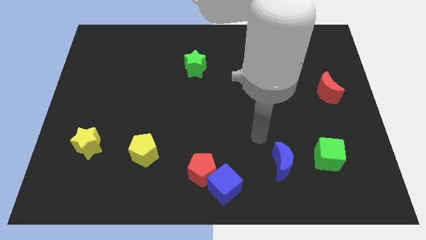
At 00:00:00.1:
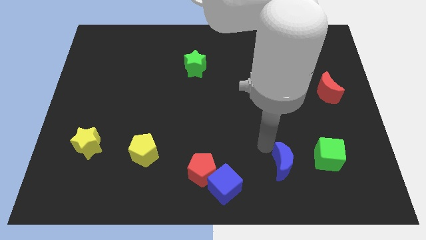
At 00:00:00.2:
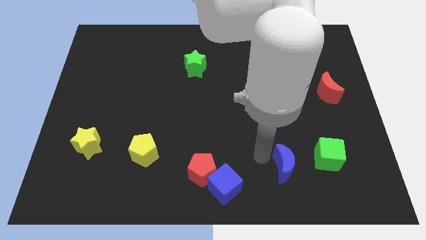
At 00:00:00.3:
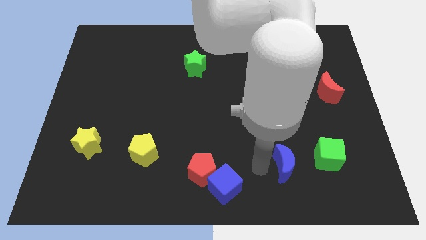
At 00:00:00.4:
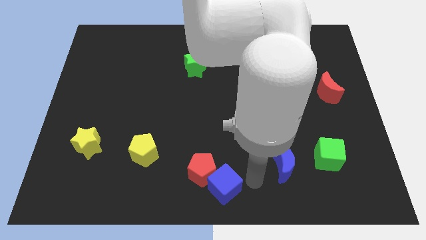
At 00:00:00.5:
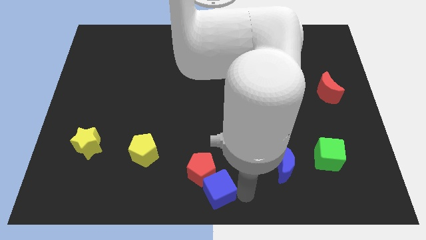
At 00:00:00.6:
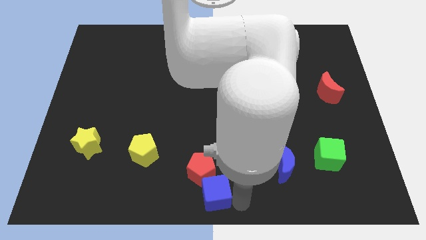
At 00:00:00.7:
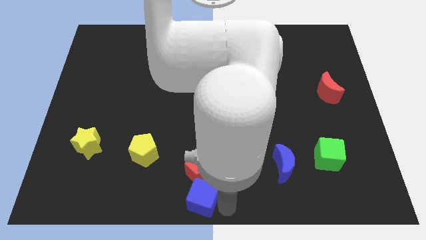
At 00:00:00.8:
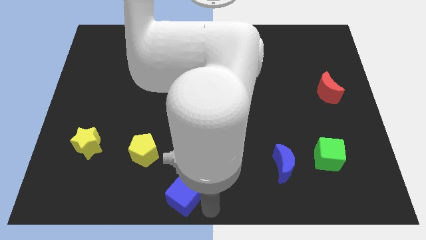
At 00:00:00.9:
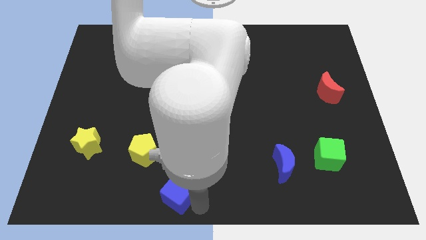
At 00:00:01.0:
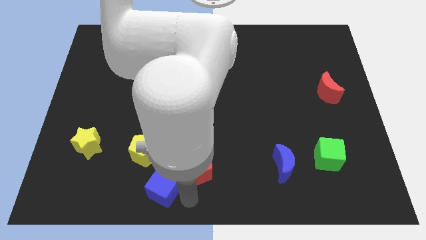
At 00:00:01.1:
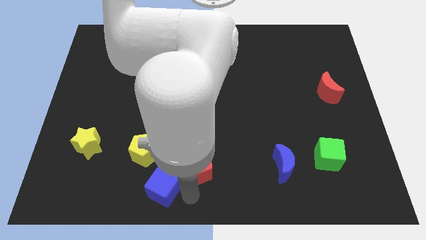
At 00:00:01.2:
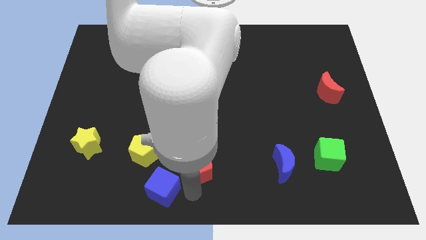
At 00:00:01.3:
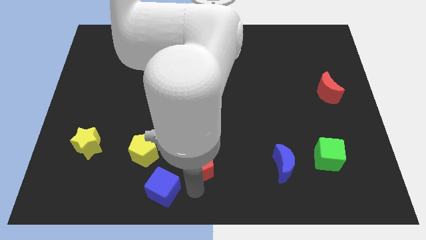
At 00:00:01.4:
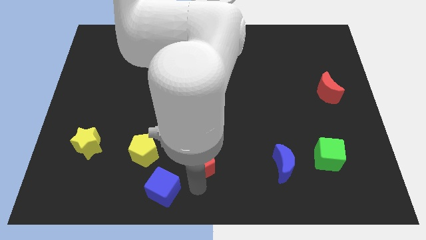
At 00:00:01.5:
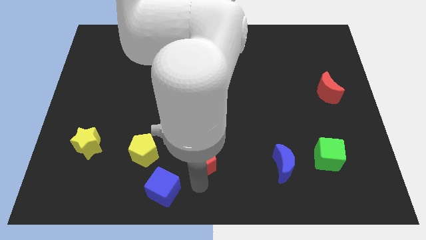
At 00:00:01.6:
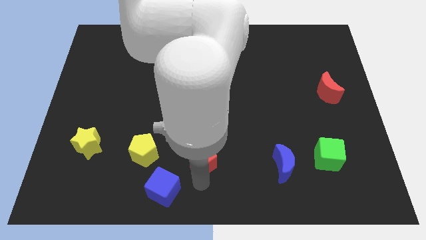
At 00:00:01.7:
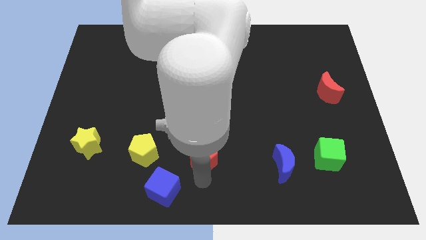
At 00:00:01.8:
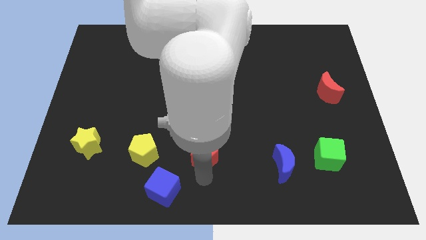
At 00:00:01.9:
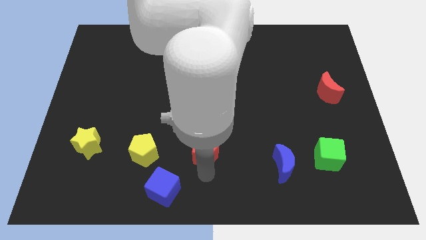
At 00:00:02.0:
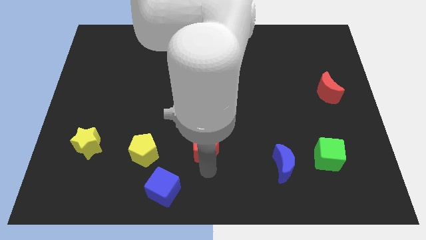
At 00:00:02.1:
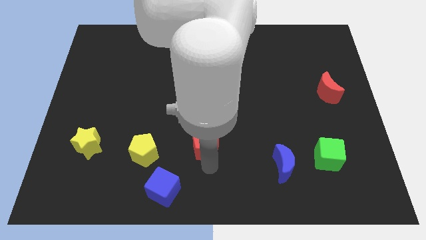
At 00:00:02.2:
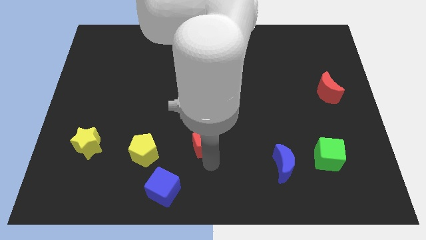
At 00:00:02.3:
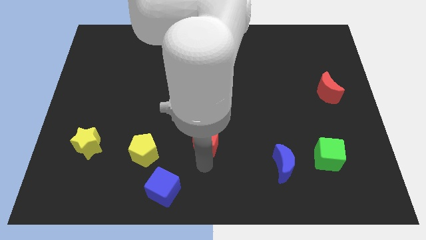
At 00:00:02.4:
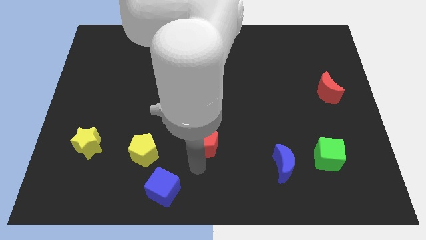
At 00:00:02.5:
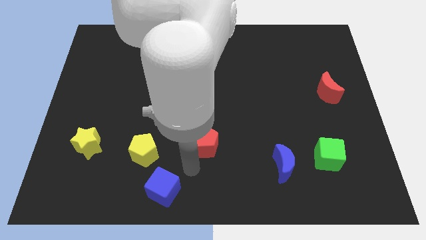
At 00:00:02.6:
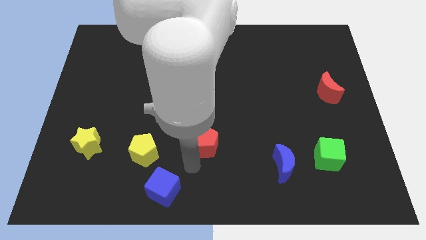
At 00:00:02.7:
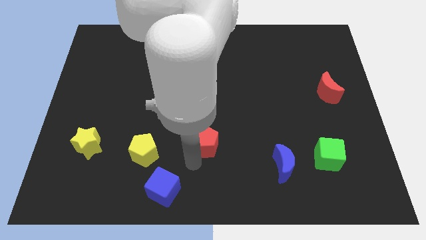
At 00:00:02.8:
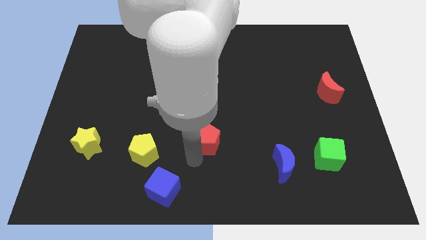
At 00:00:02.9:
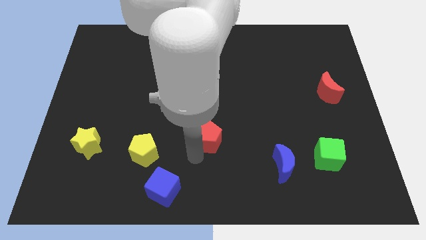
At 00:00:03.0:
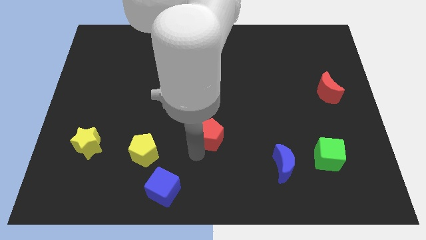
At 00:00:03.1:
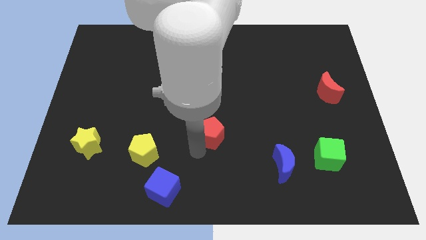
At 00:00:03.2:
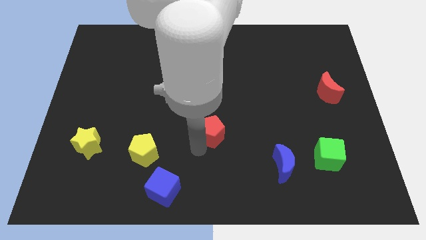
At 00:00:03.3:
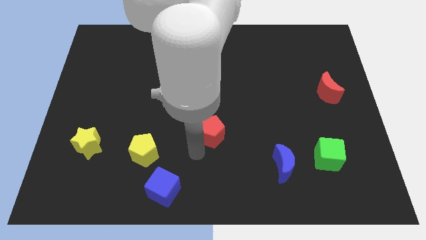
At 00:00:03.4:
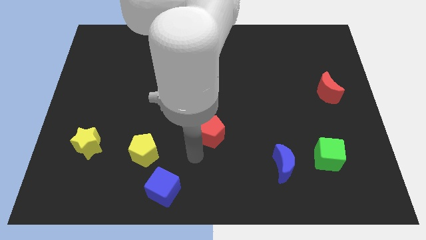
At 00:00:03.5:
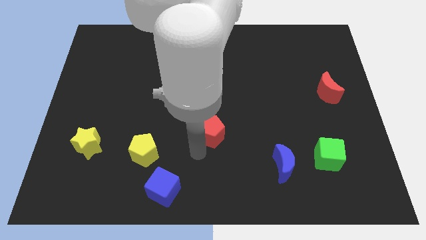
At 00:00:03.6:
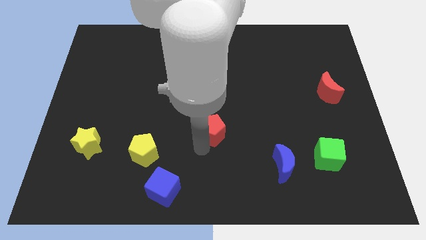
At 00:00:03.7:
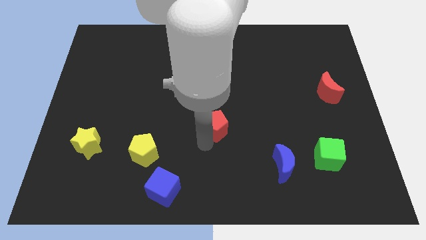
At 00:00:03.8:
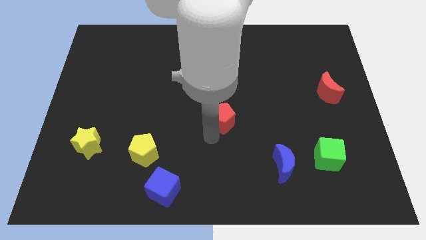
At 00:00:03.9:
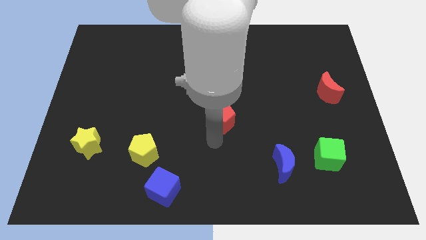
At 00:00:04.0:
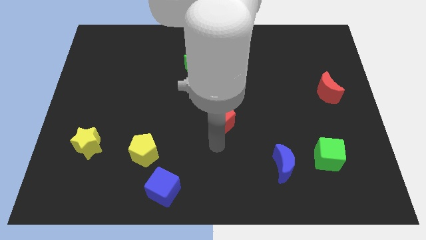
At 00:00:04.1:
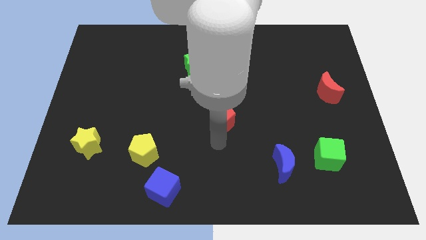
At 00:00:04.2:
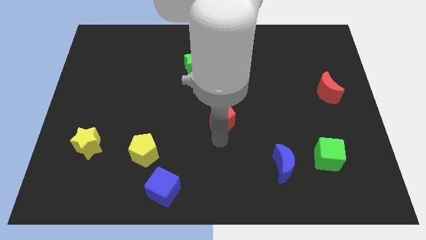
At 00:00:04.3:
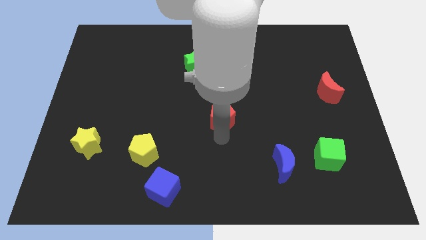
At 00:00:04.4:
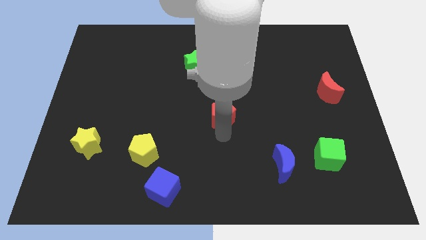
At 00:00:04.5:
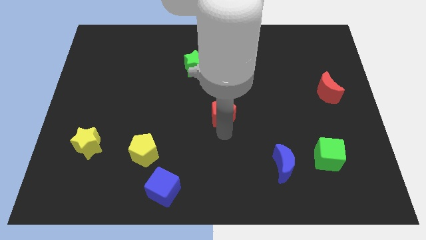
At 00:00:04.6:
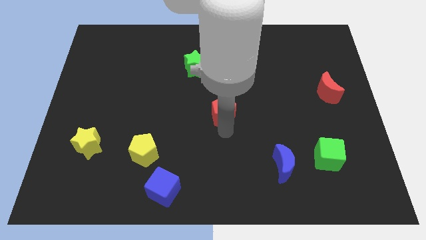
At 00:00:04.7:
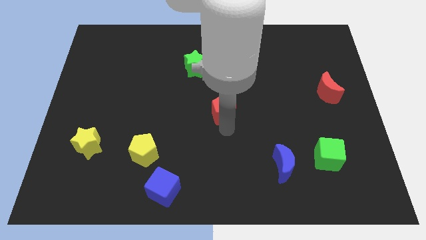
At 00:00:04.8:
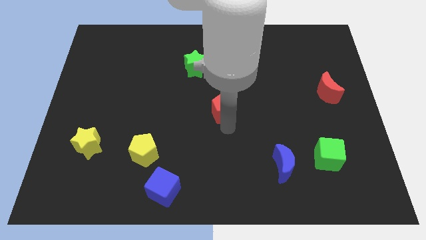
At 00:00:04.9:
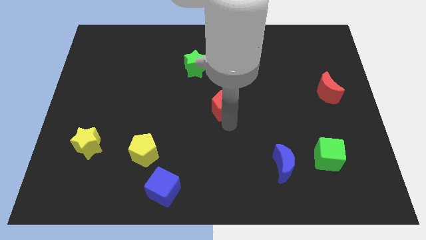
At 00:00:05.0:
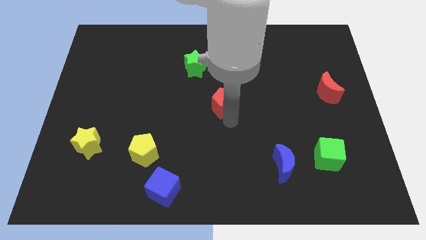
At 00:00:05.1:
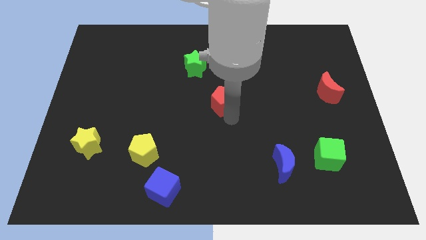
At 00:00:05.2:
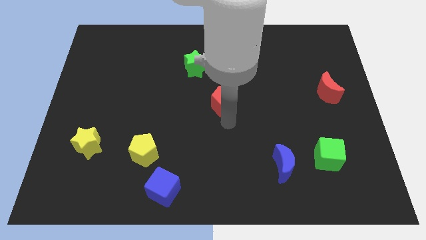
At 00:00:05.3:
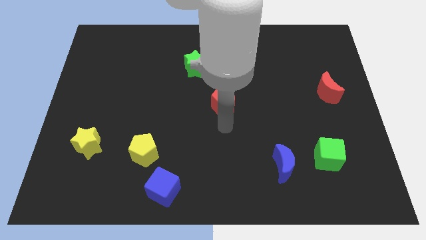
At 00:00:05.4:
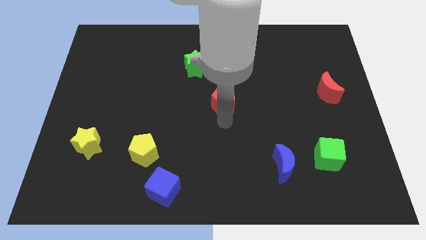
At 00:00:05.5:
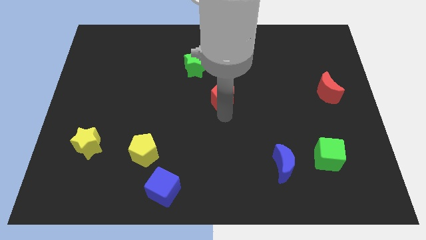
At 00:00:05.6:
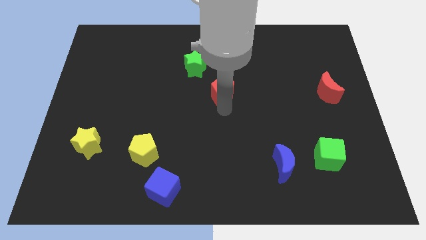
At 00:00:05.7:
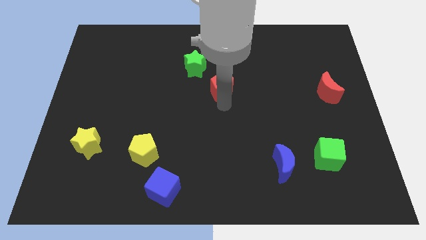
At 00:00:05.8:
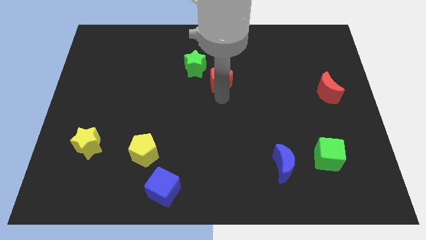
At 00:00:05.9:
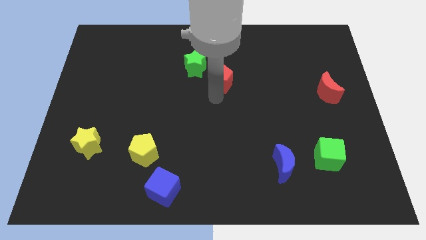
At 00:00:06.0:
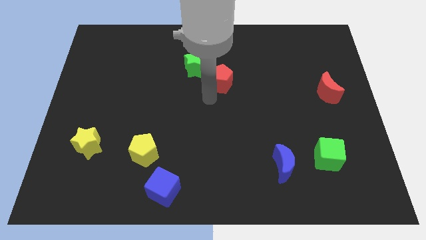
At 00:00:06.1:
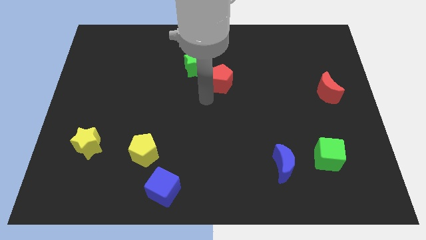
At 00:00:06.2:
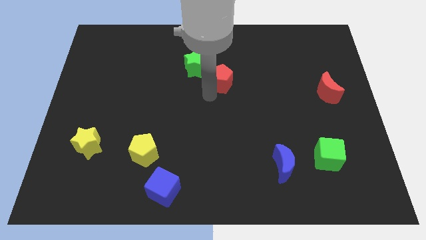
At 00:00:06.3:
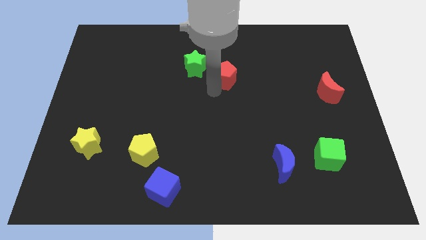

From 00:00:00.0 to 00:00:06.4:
put the red pentagon just right of the green star
